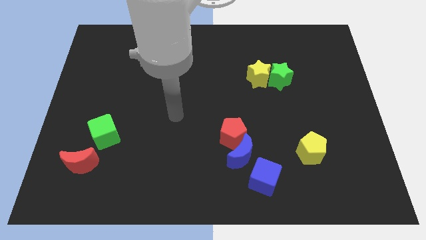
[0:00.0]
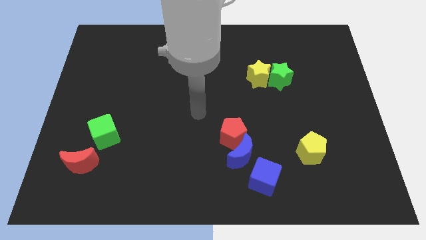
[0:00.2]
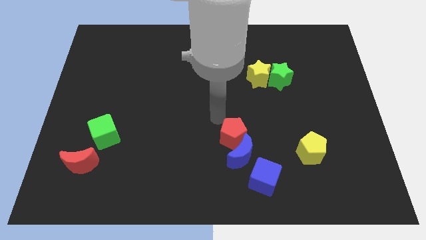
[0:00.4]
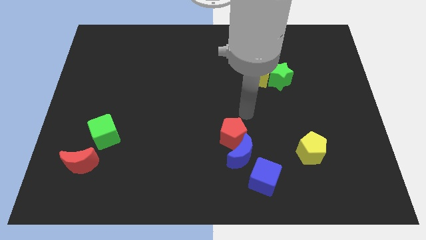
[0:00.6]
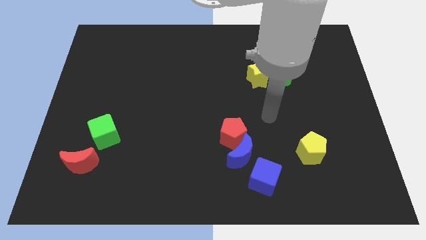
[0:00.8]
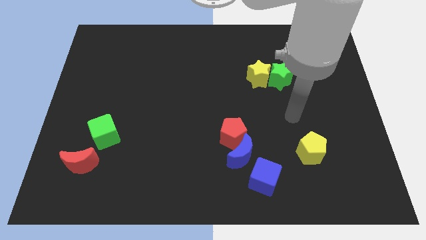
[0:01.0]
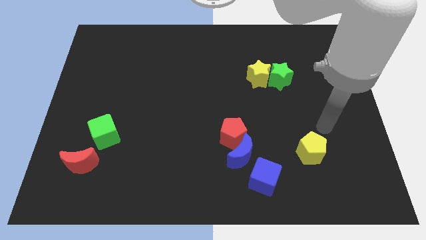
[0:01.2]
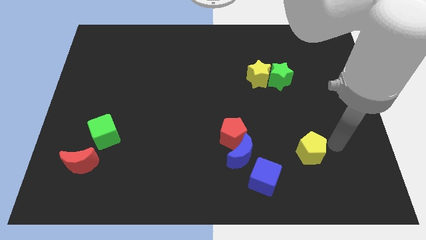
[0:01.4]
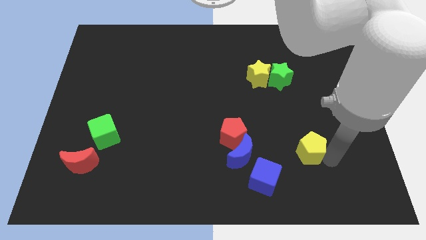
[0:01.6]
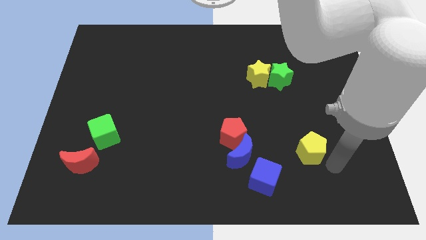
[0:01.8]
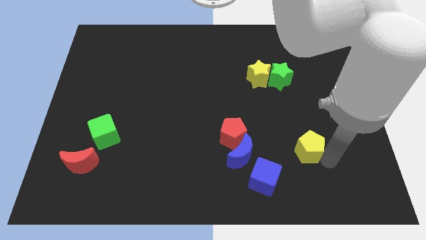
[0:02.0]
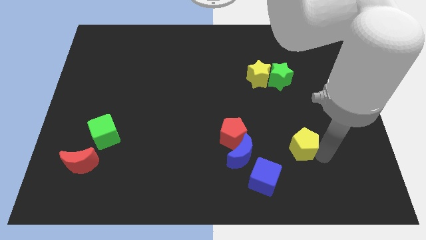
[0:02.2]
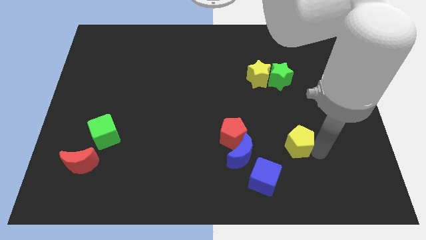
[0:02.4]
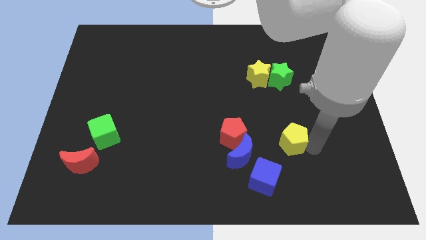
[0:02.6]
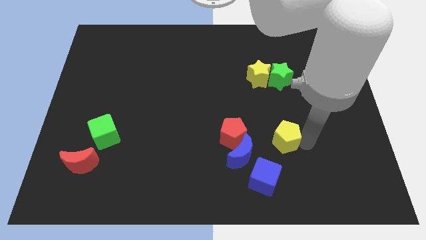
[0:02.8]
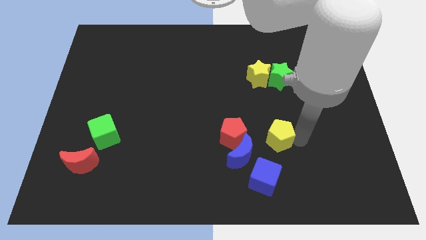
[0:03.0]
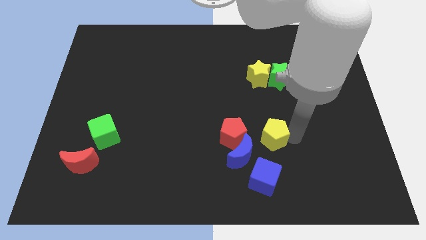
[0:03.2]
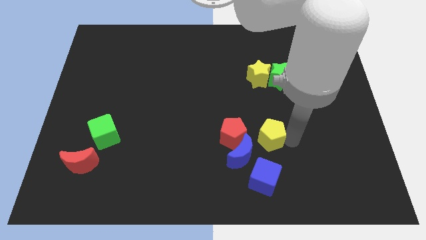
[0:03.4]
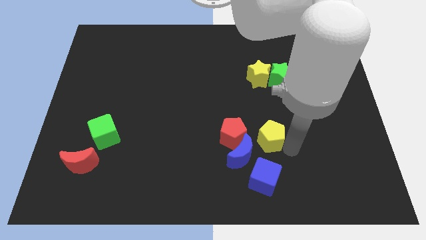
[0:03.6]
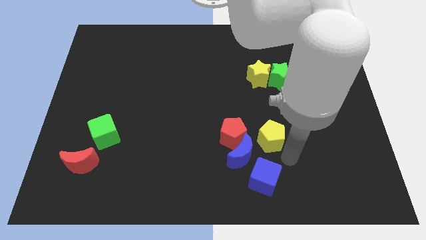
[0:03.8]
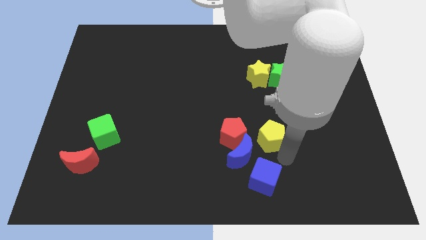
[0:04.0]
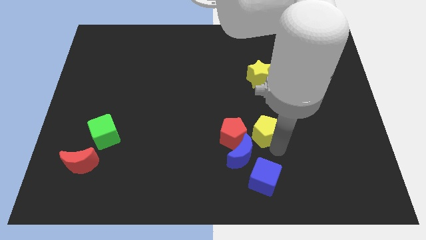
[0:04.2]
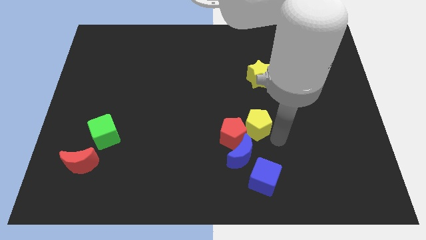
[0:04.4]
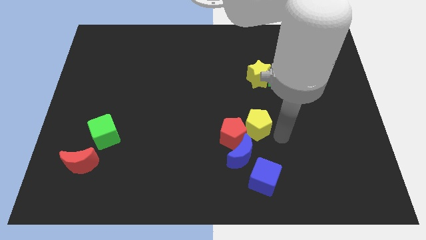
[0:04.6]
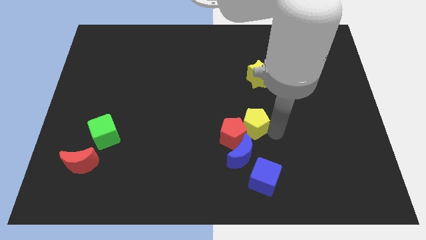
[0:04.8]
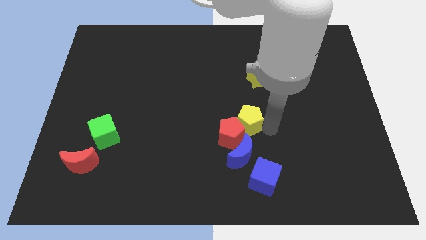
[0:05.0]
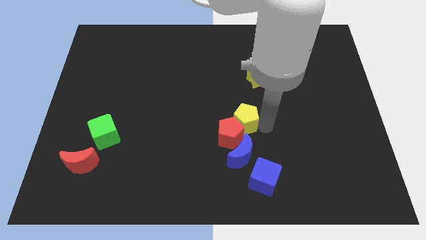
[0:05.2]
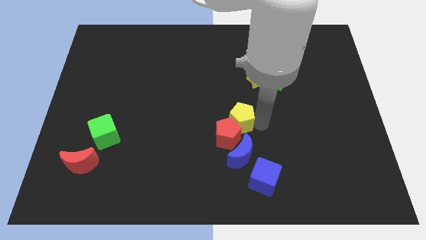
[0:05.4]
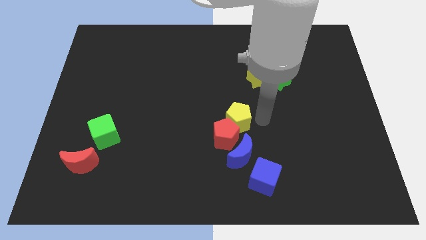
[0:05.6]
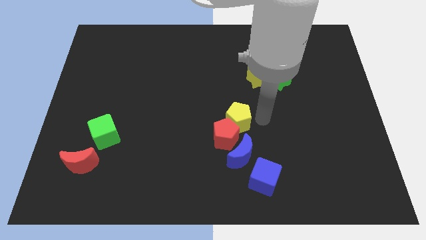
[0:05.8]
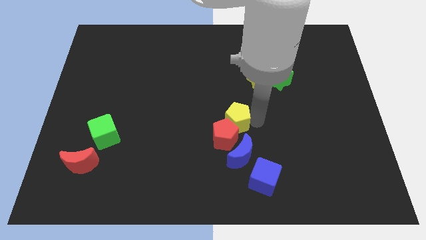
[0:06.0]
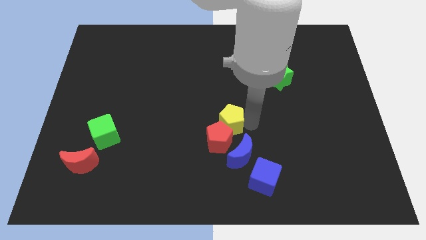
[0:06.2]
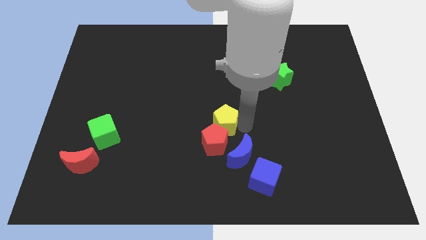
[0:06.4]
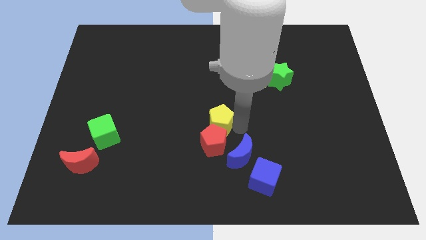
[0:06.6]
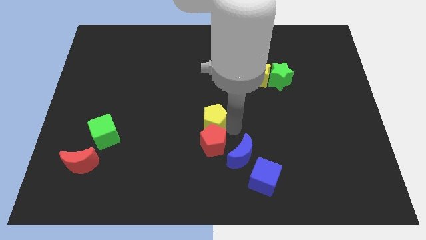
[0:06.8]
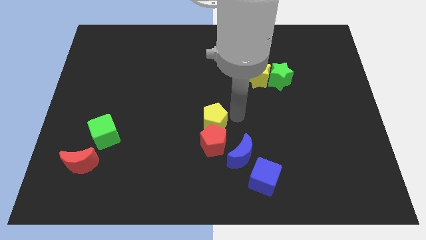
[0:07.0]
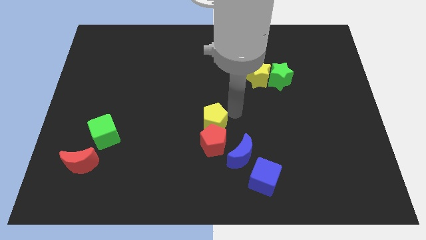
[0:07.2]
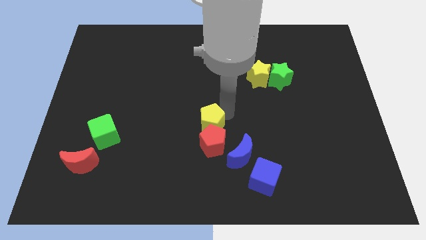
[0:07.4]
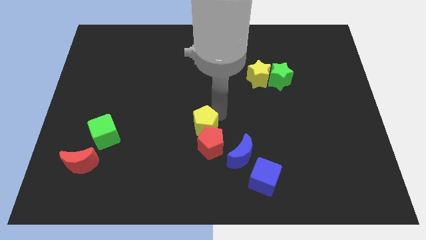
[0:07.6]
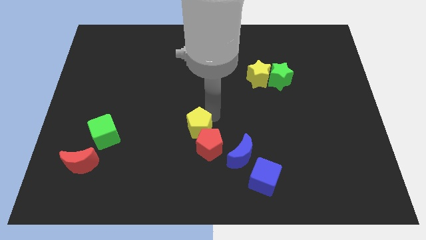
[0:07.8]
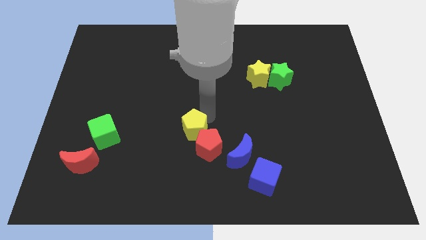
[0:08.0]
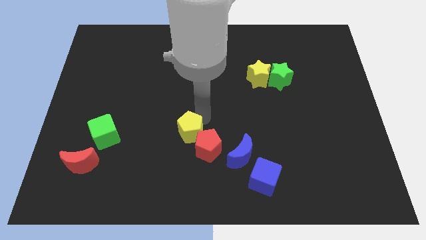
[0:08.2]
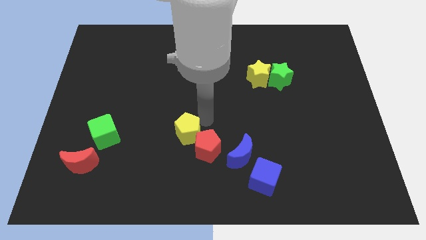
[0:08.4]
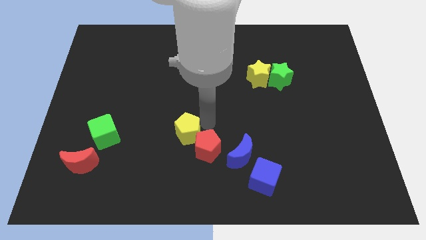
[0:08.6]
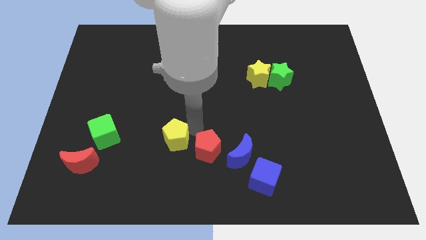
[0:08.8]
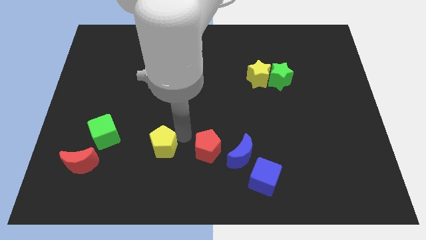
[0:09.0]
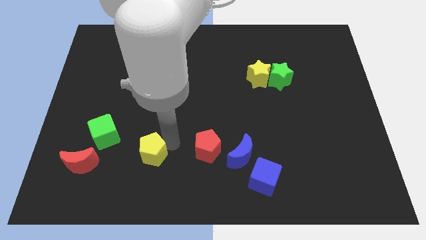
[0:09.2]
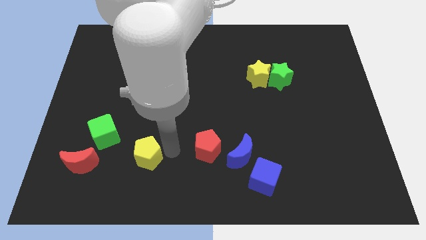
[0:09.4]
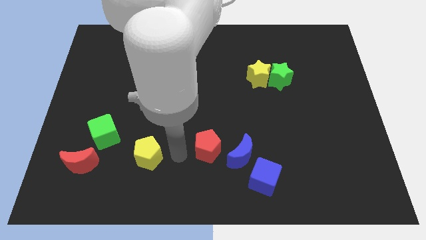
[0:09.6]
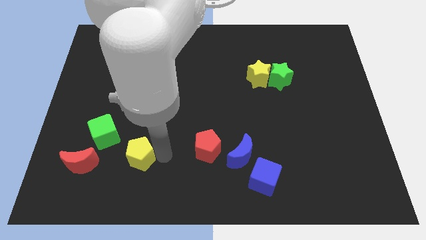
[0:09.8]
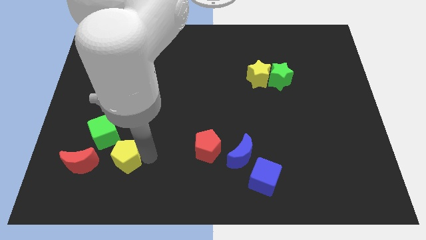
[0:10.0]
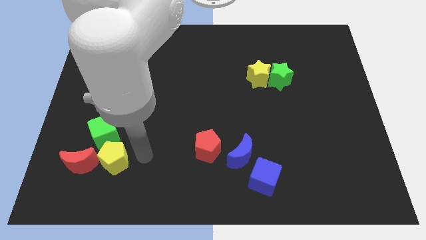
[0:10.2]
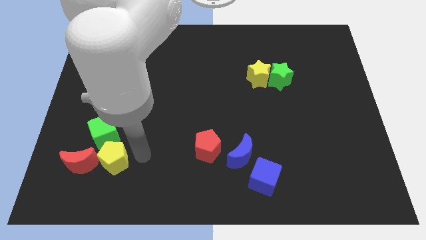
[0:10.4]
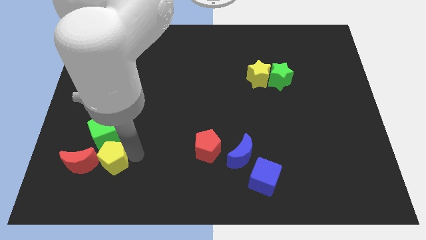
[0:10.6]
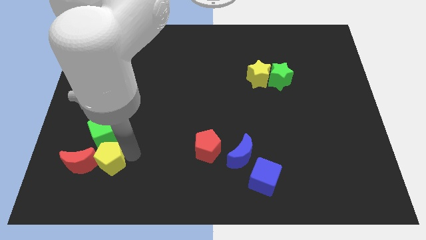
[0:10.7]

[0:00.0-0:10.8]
move the yellow pentagon towards the red moon
